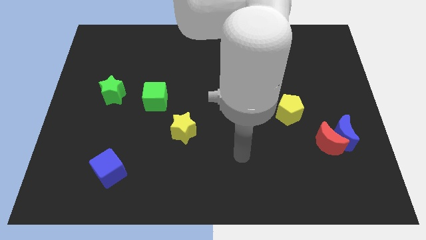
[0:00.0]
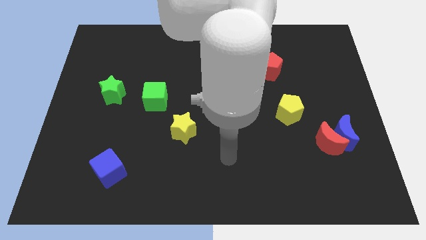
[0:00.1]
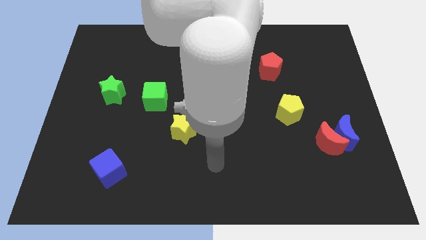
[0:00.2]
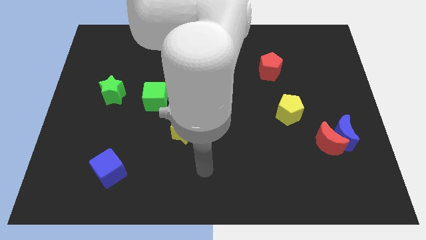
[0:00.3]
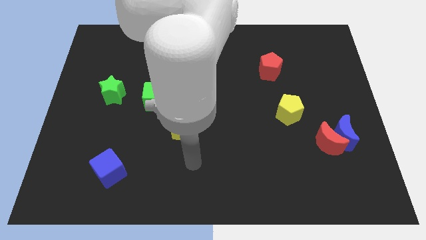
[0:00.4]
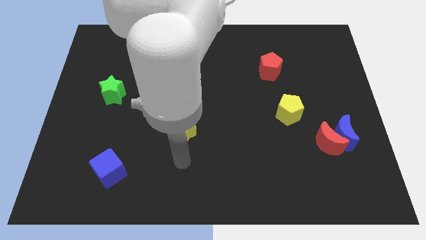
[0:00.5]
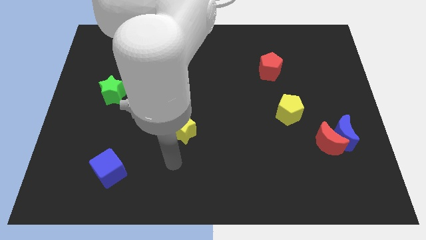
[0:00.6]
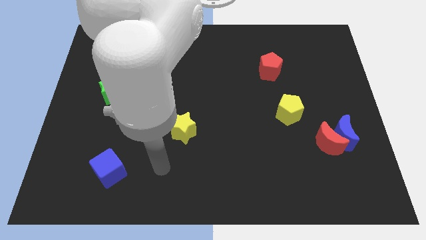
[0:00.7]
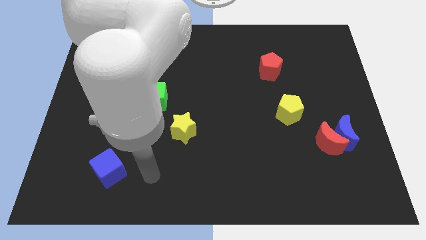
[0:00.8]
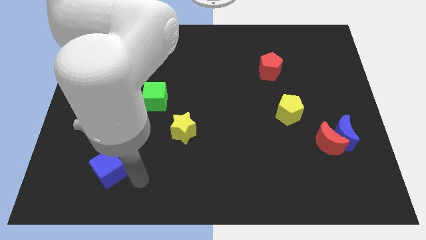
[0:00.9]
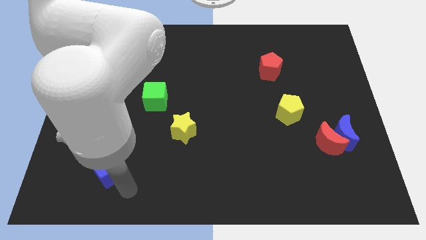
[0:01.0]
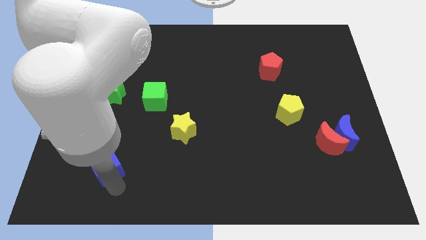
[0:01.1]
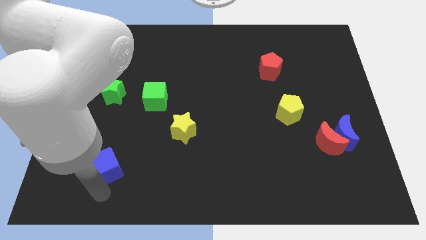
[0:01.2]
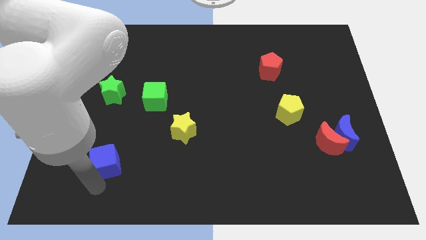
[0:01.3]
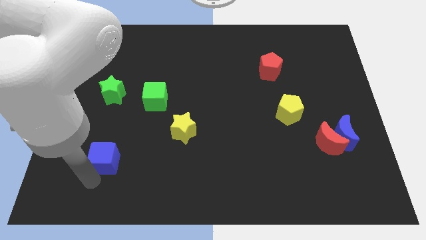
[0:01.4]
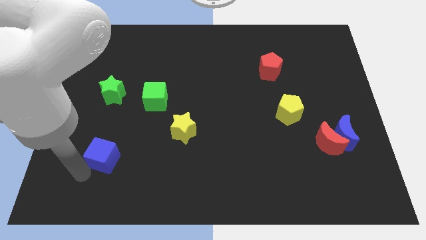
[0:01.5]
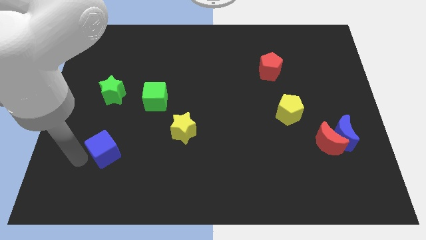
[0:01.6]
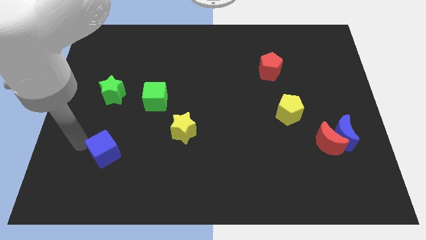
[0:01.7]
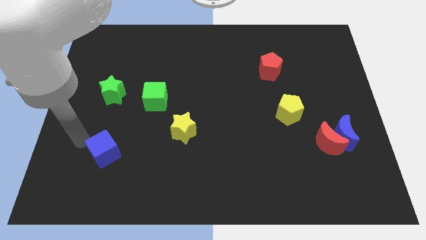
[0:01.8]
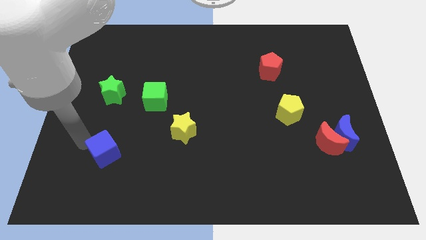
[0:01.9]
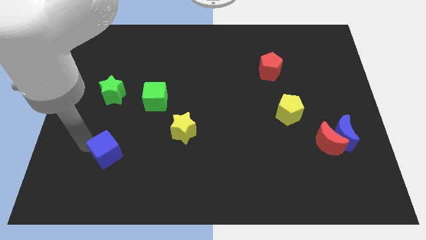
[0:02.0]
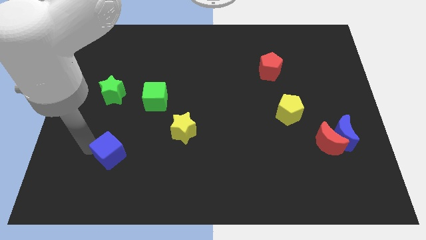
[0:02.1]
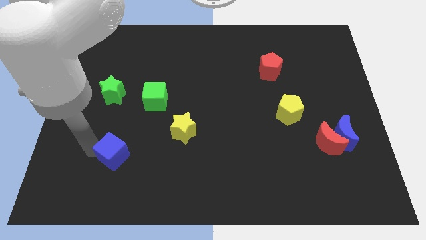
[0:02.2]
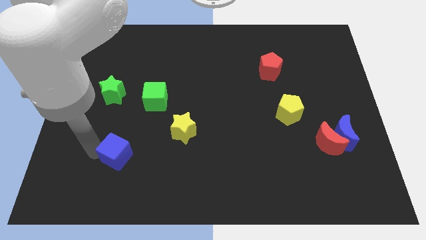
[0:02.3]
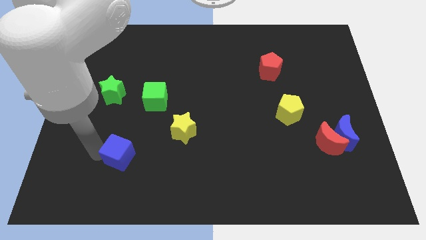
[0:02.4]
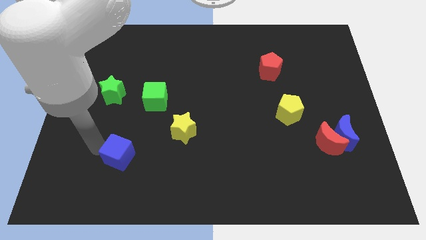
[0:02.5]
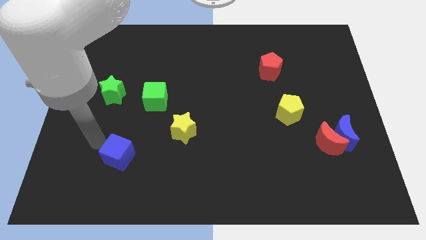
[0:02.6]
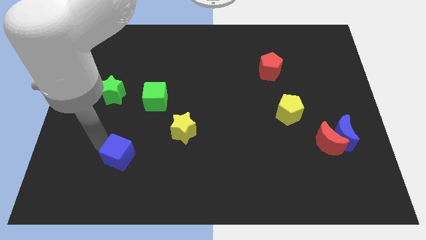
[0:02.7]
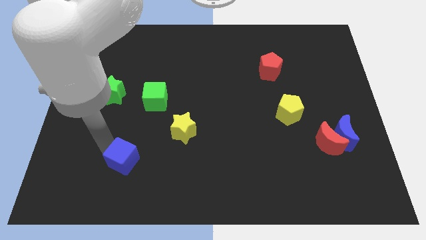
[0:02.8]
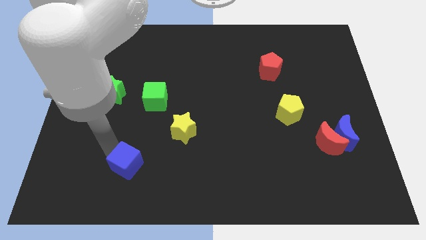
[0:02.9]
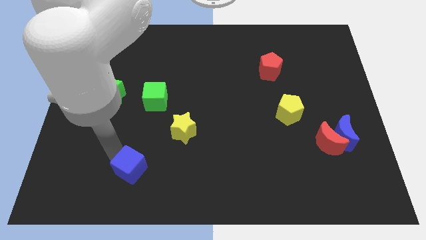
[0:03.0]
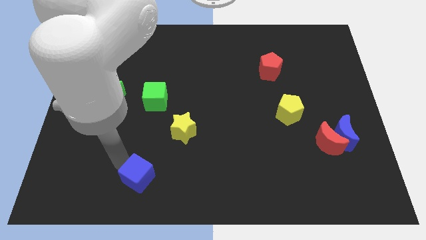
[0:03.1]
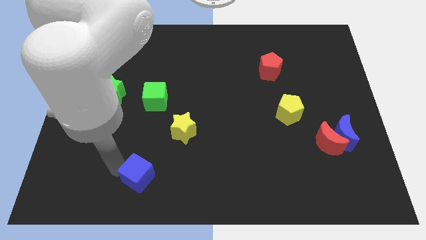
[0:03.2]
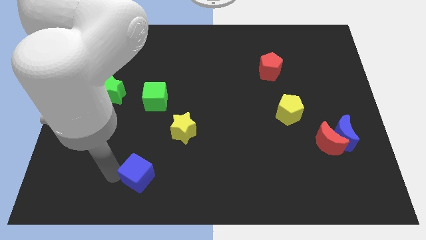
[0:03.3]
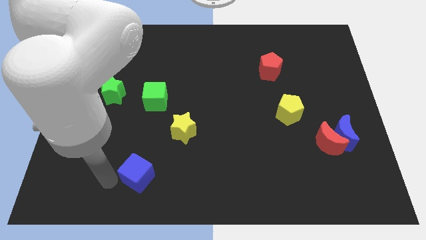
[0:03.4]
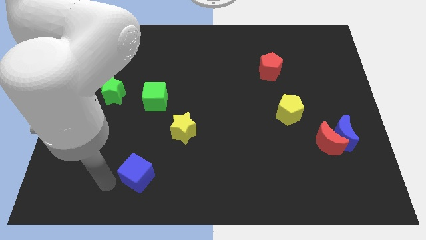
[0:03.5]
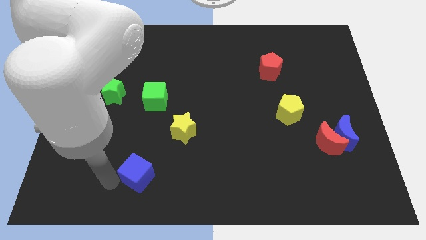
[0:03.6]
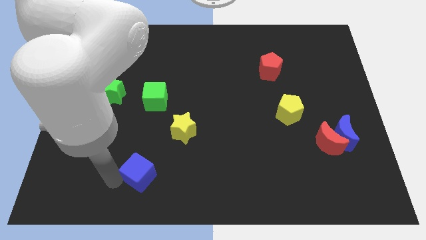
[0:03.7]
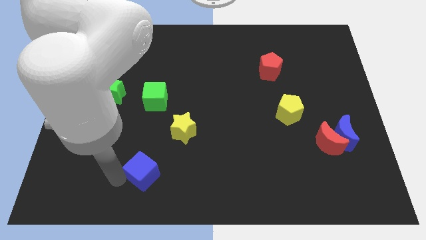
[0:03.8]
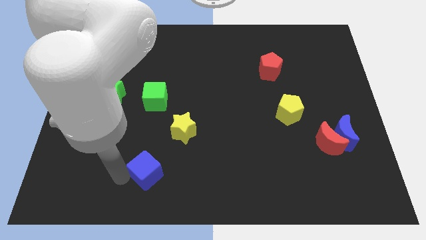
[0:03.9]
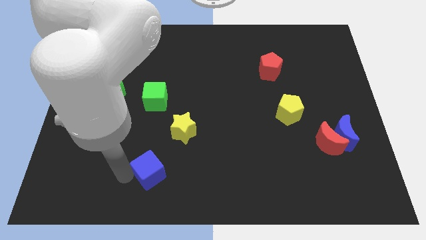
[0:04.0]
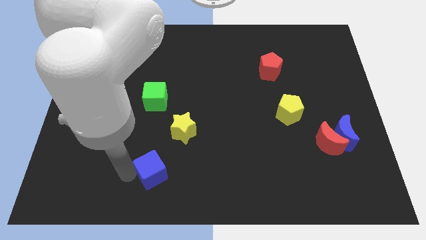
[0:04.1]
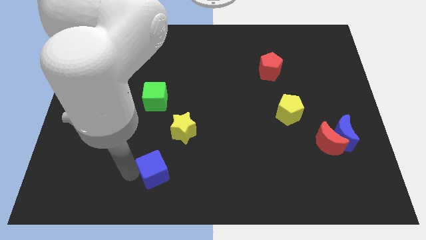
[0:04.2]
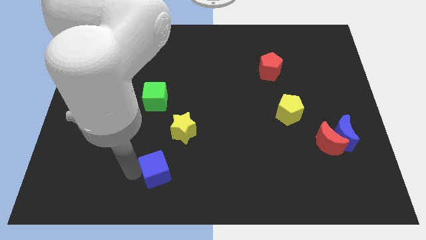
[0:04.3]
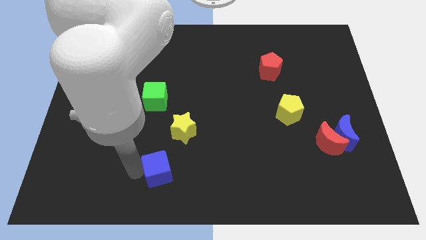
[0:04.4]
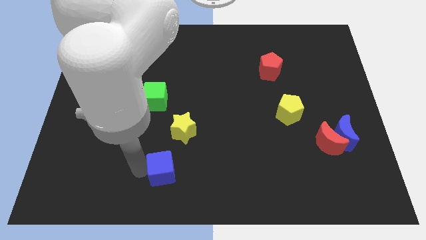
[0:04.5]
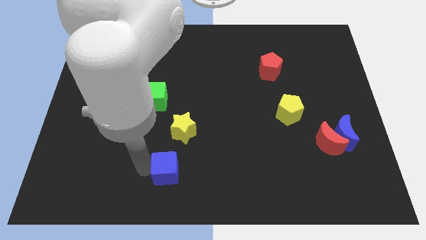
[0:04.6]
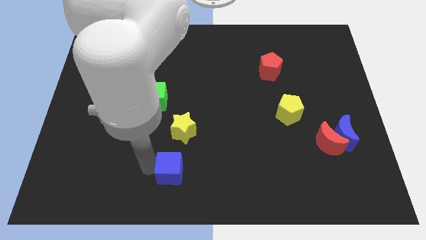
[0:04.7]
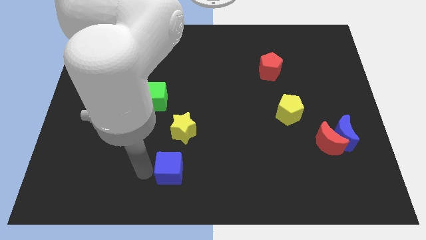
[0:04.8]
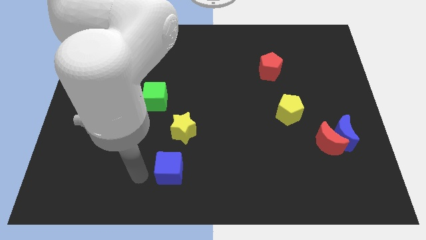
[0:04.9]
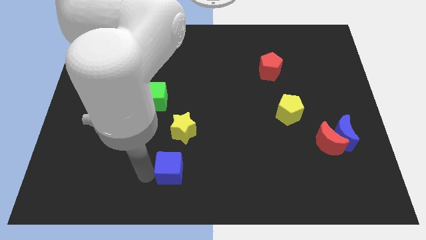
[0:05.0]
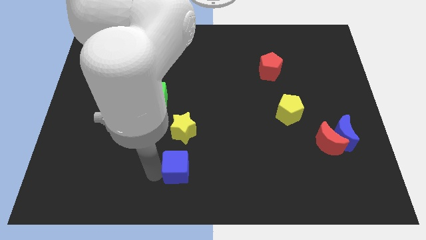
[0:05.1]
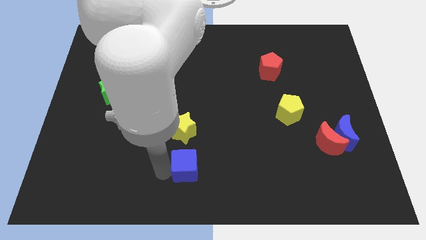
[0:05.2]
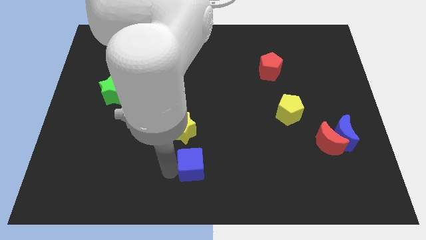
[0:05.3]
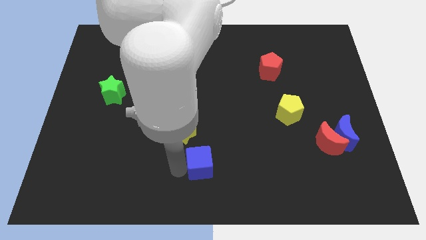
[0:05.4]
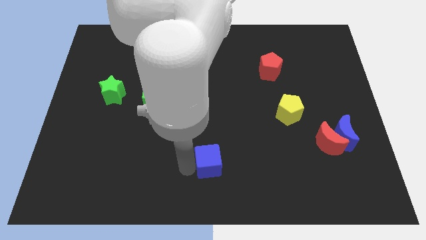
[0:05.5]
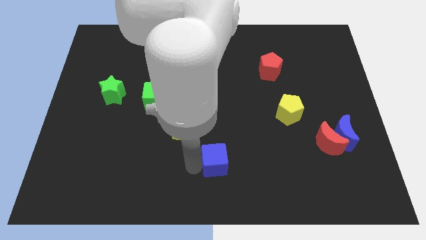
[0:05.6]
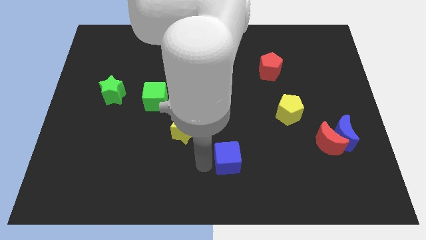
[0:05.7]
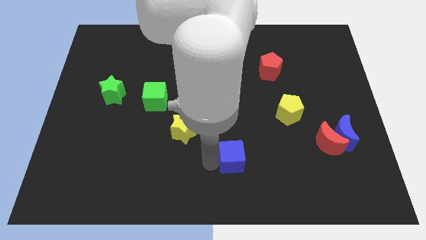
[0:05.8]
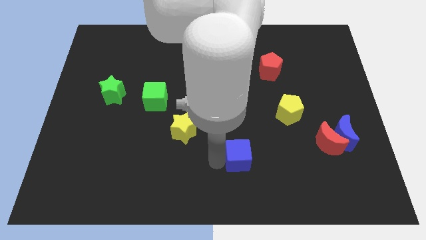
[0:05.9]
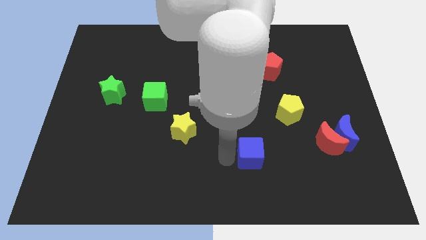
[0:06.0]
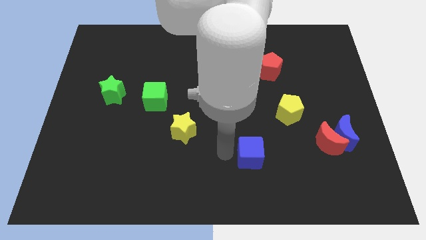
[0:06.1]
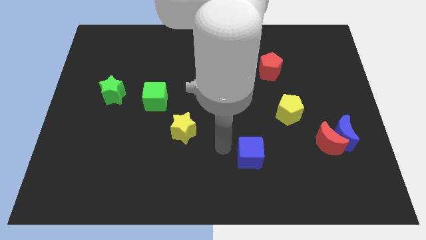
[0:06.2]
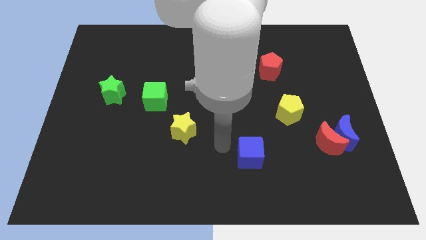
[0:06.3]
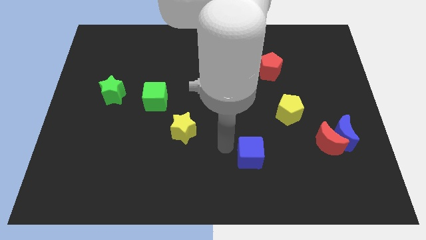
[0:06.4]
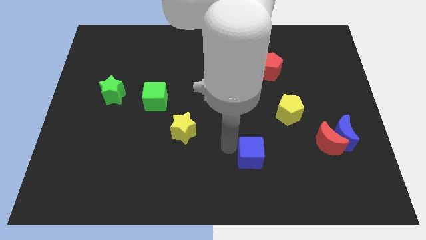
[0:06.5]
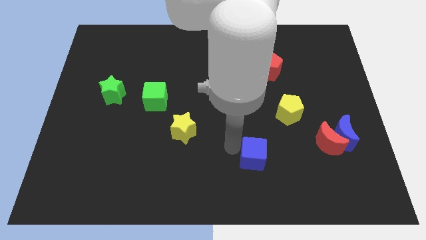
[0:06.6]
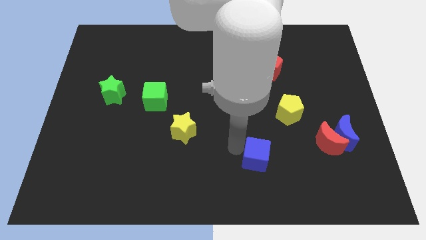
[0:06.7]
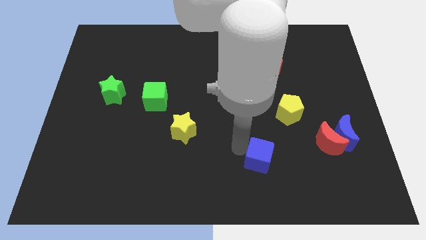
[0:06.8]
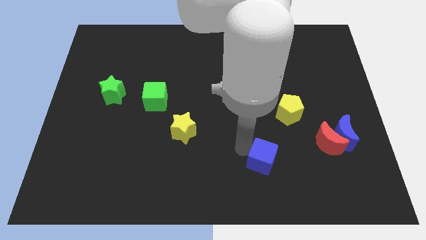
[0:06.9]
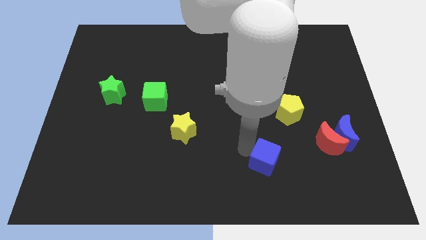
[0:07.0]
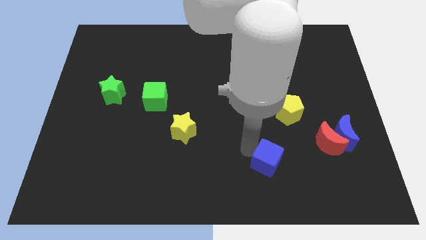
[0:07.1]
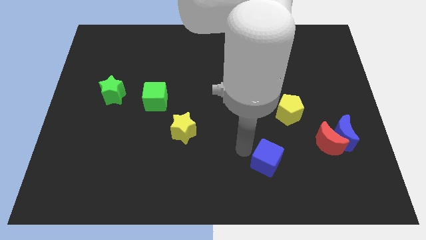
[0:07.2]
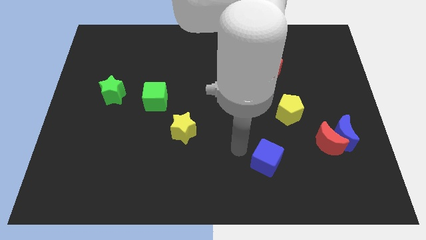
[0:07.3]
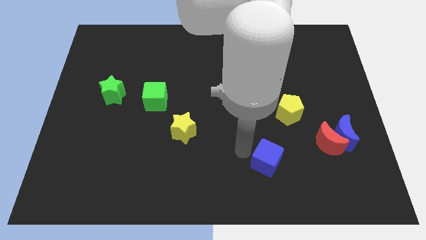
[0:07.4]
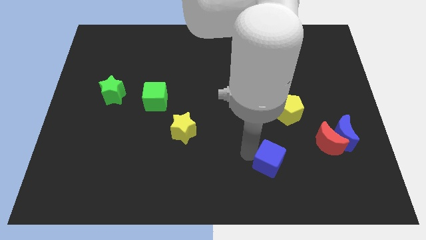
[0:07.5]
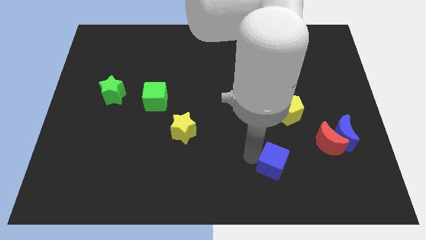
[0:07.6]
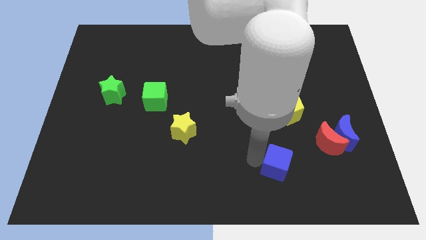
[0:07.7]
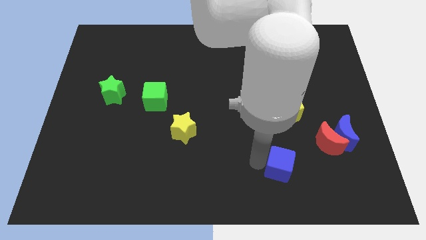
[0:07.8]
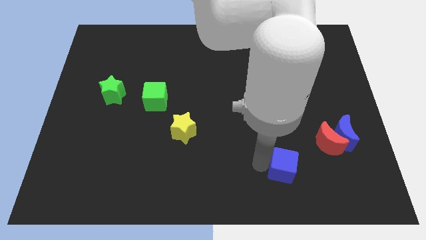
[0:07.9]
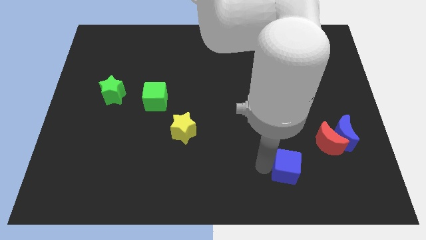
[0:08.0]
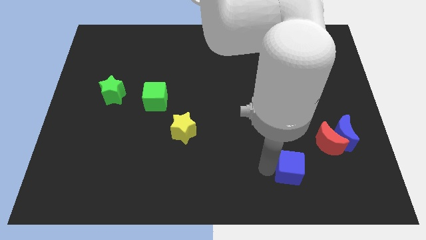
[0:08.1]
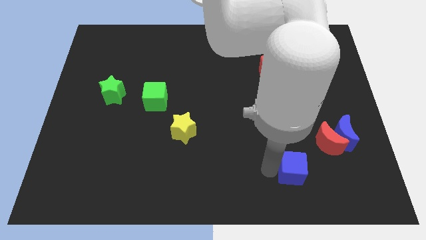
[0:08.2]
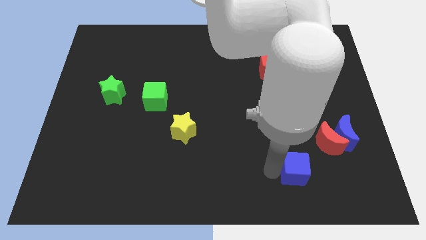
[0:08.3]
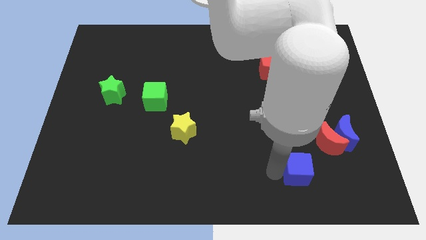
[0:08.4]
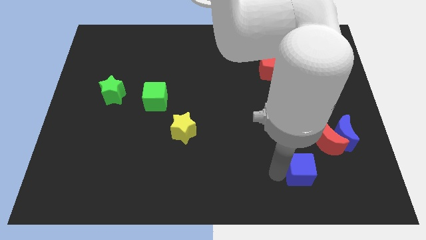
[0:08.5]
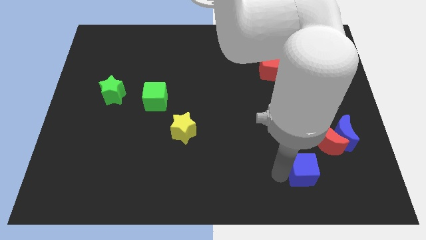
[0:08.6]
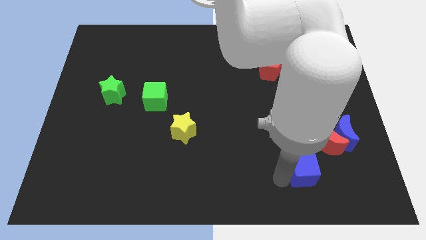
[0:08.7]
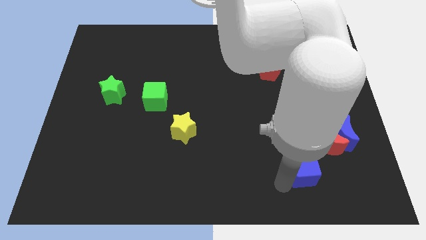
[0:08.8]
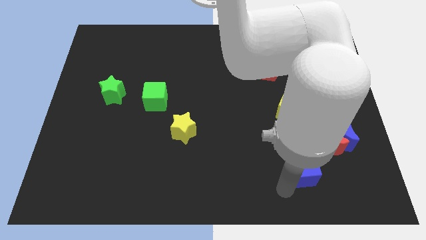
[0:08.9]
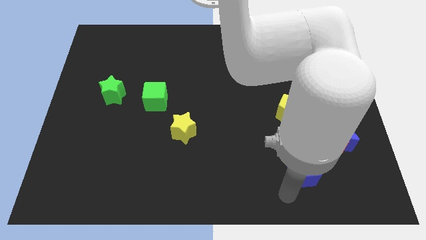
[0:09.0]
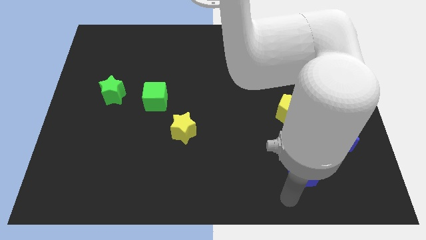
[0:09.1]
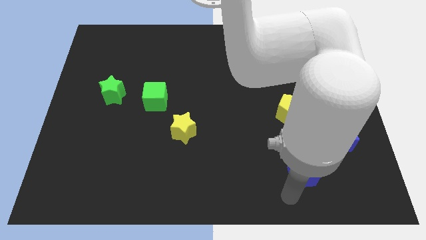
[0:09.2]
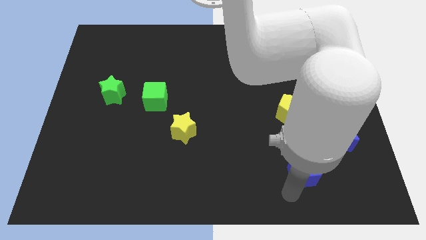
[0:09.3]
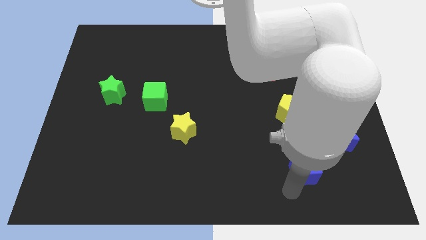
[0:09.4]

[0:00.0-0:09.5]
slide the blue cube to the bottom left of the blue moon
